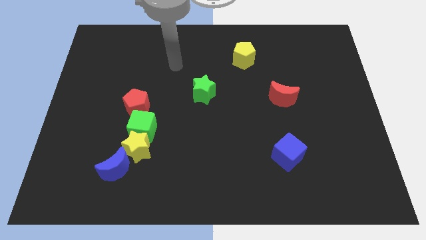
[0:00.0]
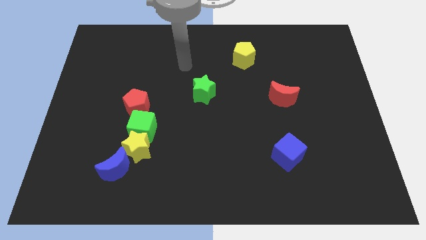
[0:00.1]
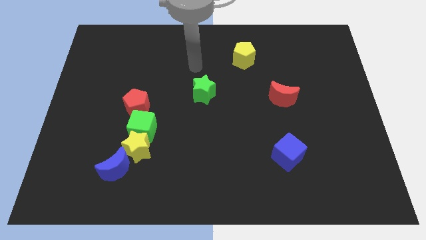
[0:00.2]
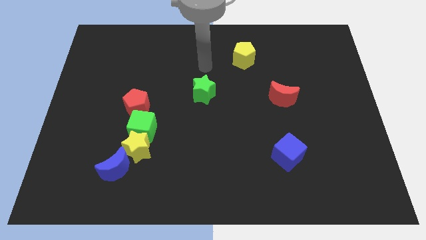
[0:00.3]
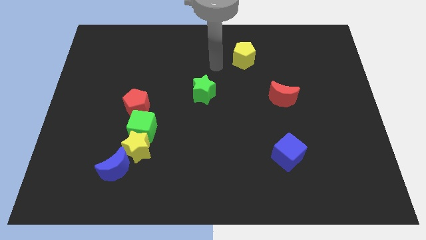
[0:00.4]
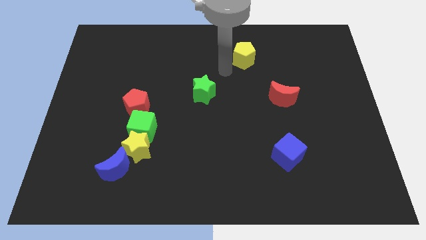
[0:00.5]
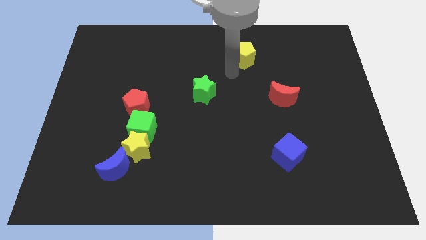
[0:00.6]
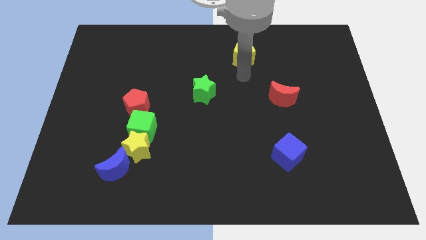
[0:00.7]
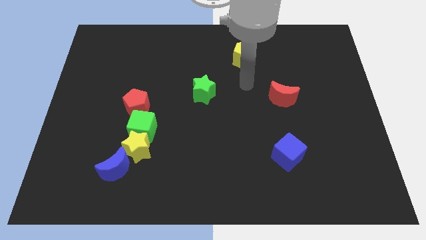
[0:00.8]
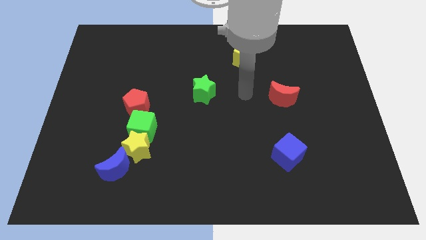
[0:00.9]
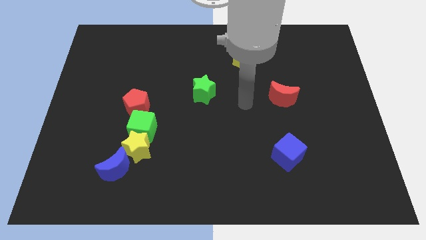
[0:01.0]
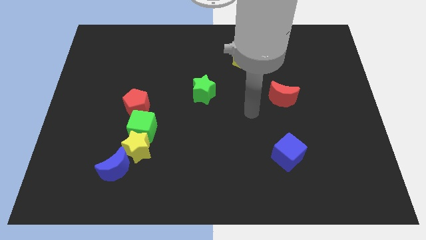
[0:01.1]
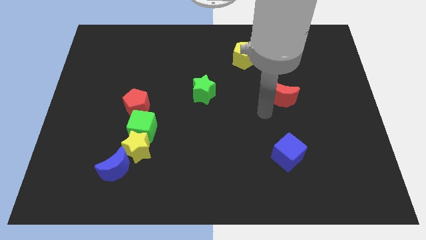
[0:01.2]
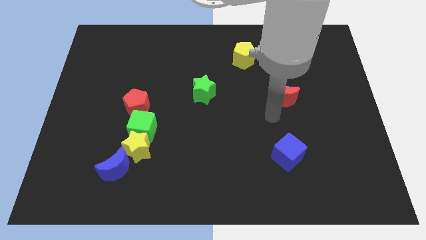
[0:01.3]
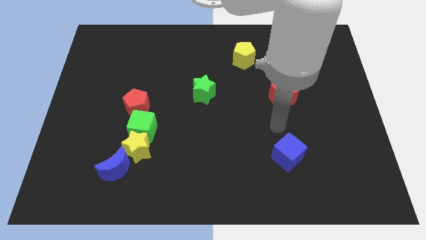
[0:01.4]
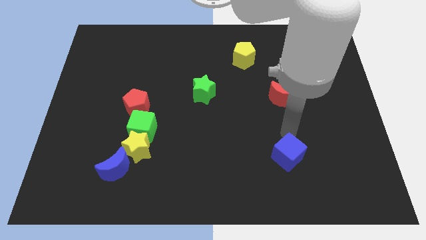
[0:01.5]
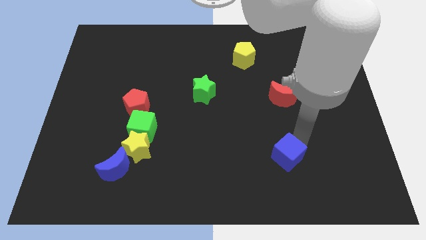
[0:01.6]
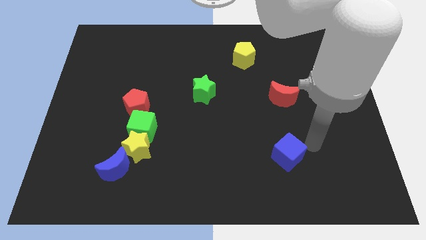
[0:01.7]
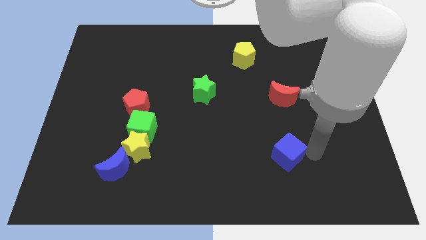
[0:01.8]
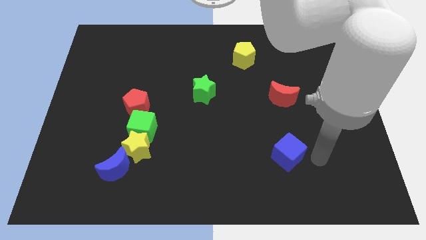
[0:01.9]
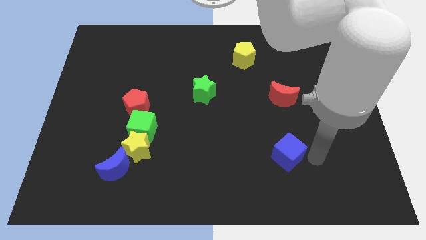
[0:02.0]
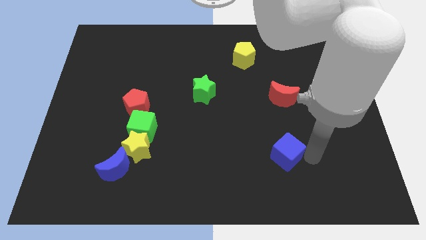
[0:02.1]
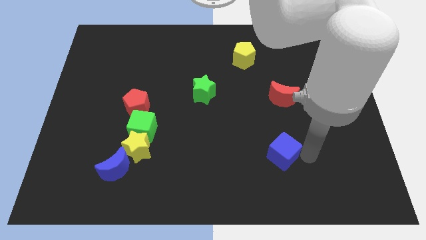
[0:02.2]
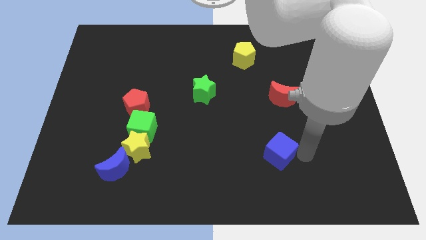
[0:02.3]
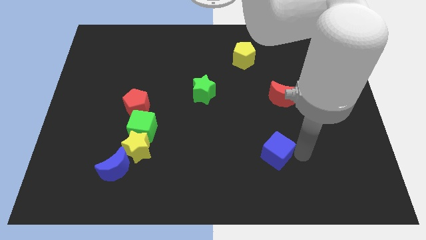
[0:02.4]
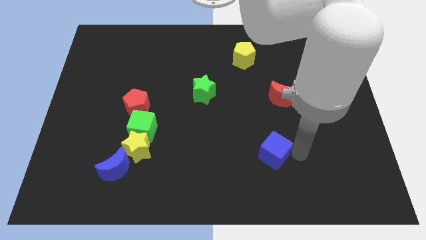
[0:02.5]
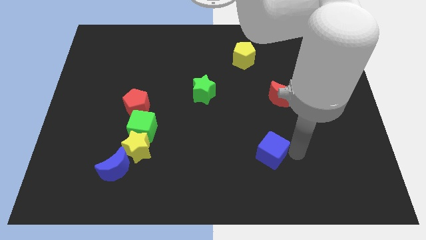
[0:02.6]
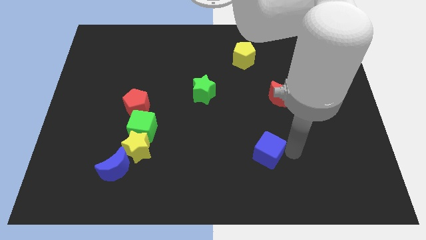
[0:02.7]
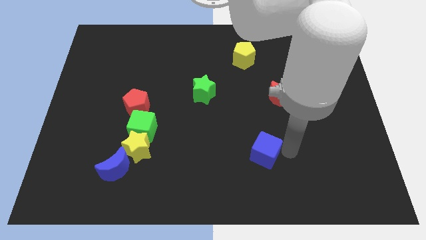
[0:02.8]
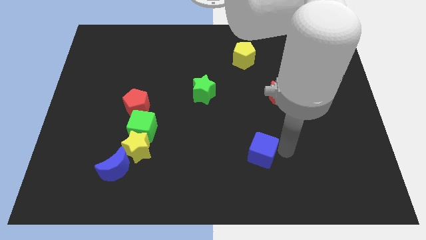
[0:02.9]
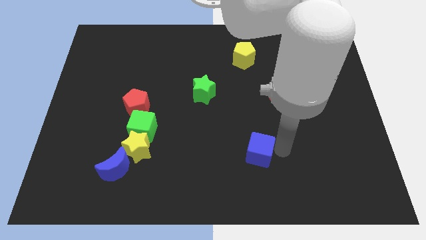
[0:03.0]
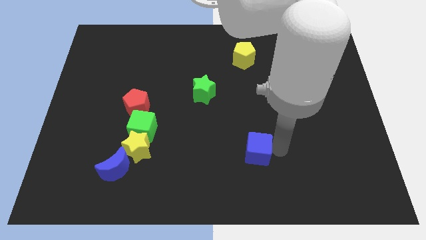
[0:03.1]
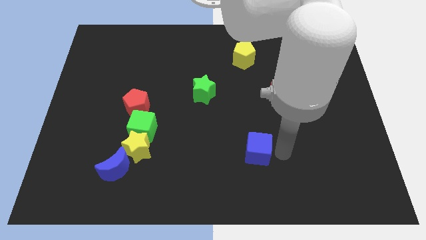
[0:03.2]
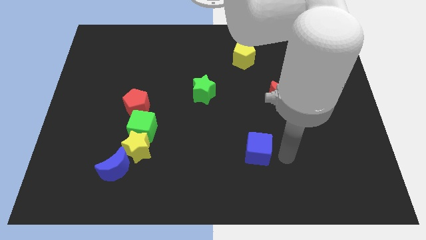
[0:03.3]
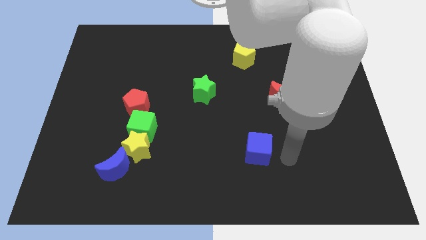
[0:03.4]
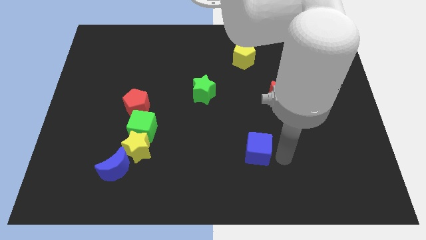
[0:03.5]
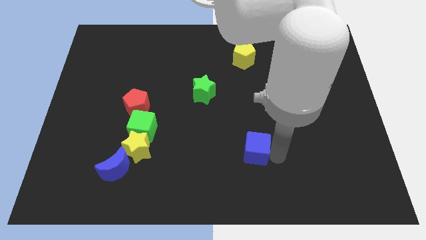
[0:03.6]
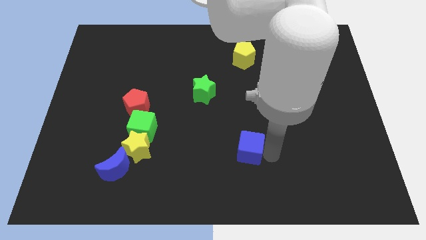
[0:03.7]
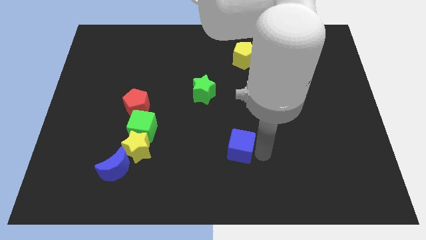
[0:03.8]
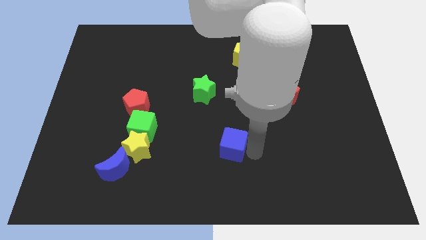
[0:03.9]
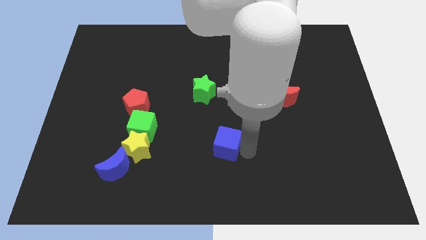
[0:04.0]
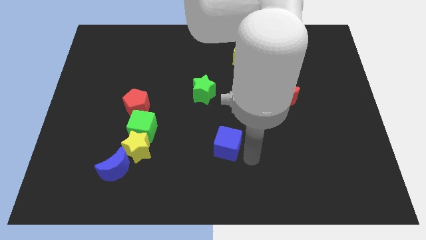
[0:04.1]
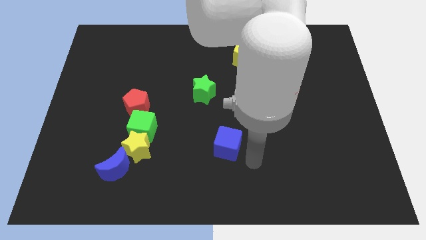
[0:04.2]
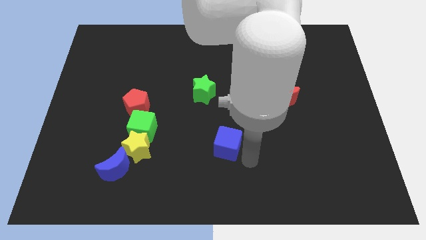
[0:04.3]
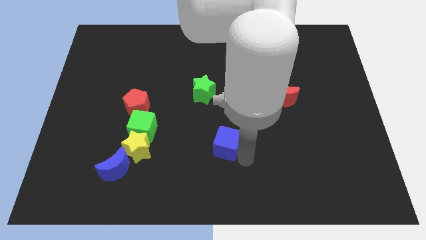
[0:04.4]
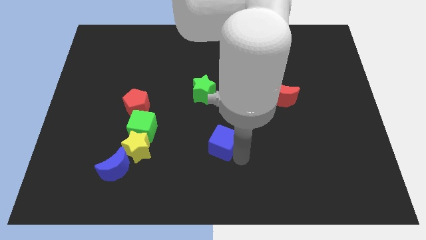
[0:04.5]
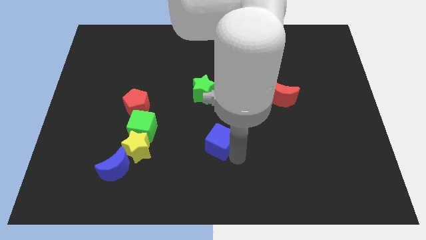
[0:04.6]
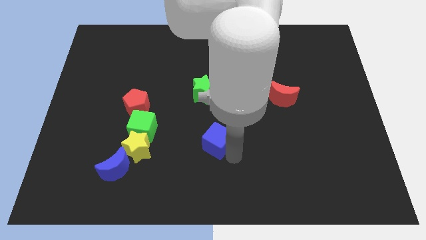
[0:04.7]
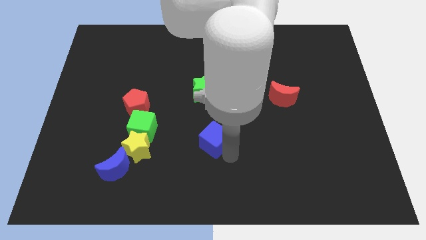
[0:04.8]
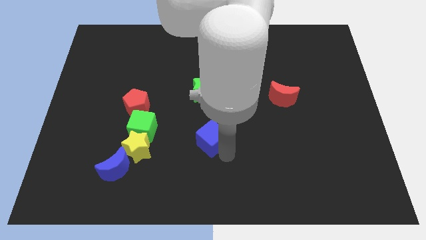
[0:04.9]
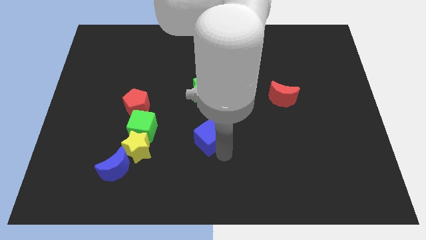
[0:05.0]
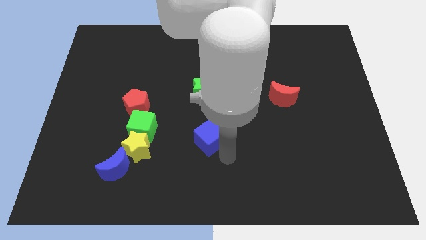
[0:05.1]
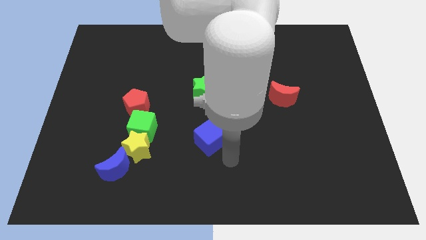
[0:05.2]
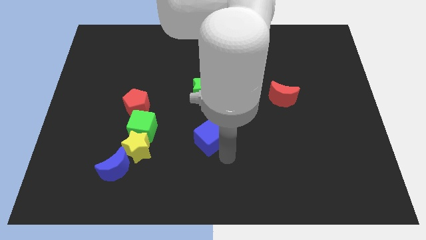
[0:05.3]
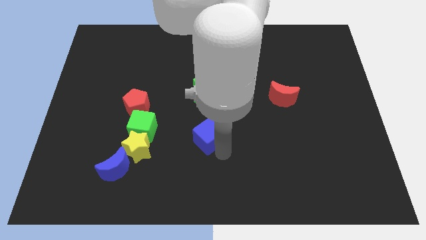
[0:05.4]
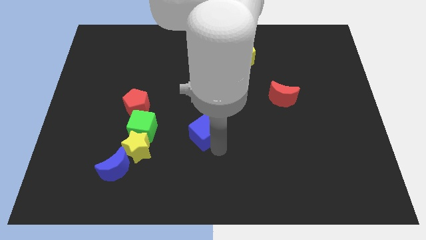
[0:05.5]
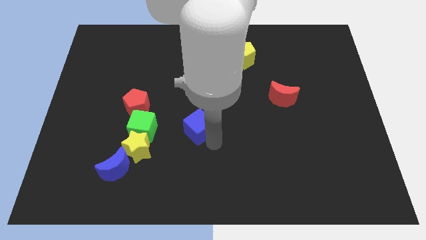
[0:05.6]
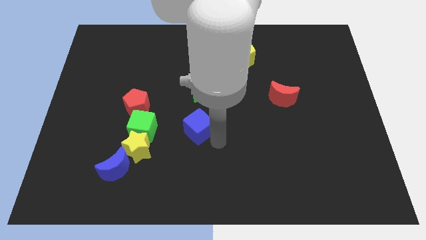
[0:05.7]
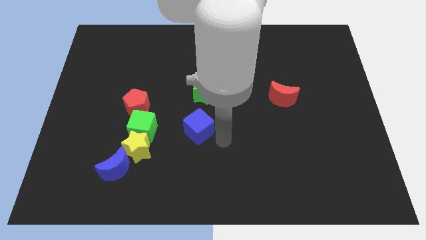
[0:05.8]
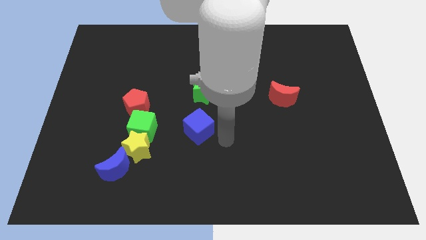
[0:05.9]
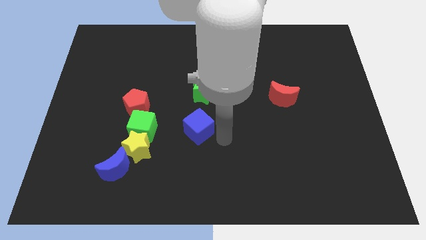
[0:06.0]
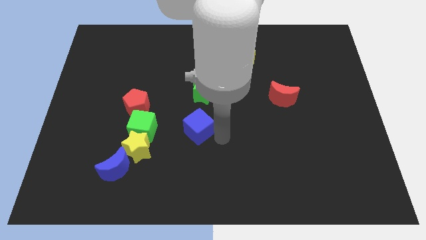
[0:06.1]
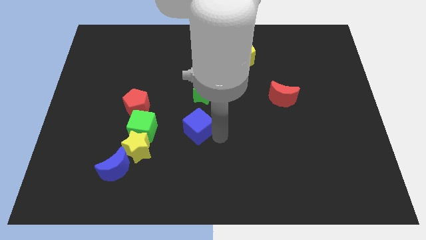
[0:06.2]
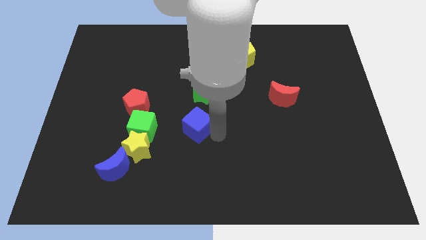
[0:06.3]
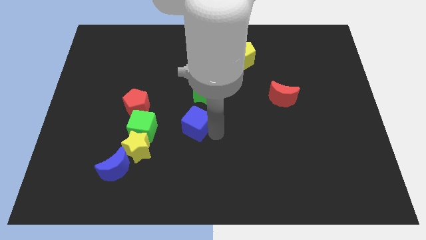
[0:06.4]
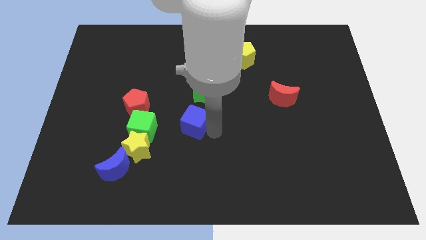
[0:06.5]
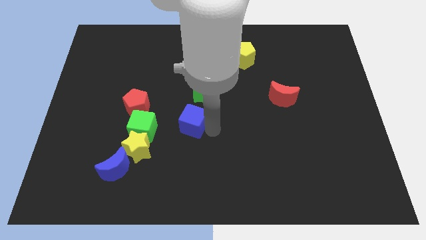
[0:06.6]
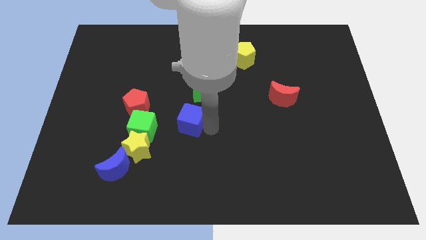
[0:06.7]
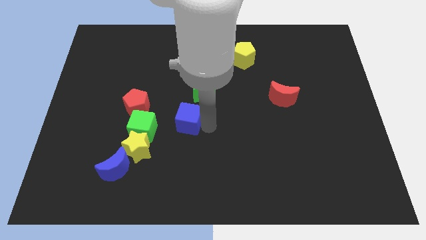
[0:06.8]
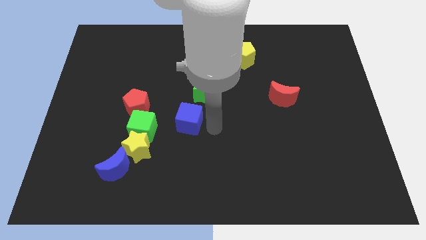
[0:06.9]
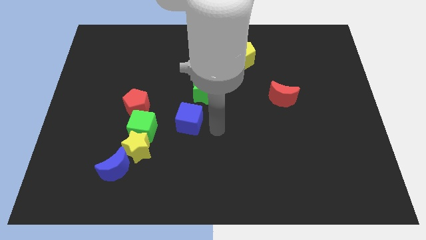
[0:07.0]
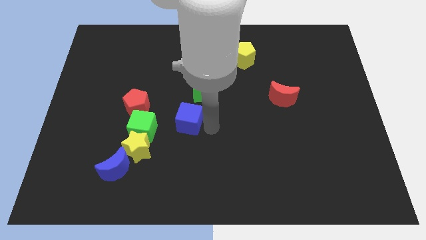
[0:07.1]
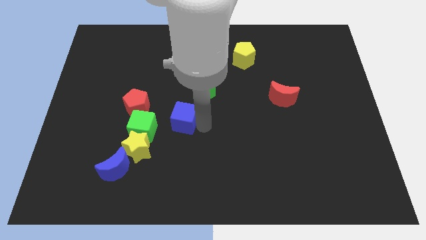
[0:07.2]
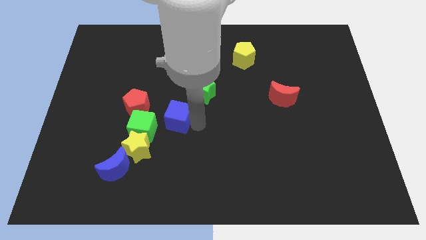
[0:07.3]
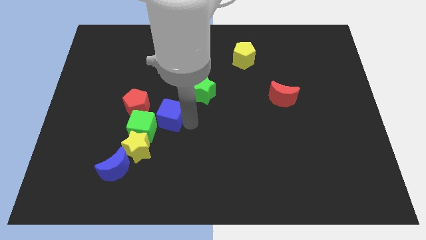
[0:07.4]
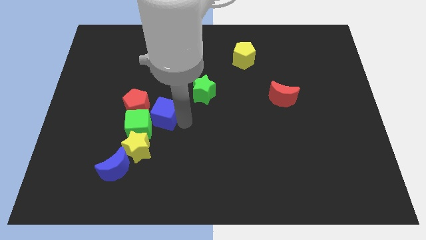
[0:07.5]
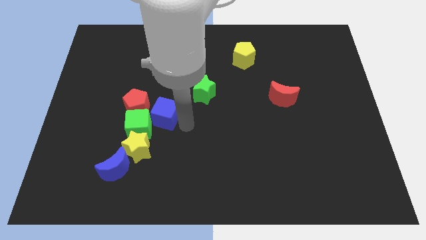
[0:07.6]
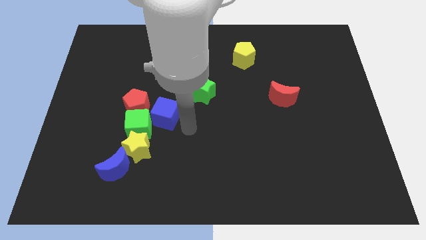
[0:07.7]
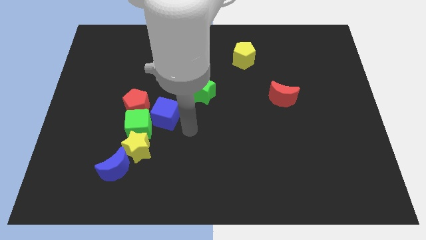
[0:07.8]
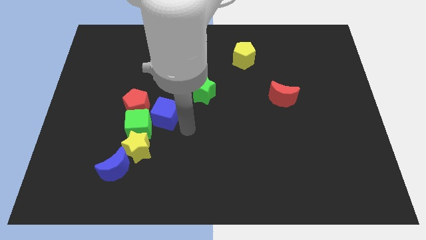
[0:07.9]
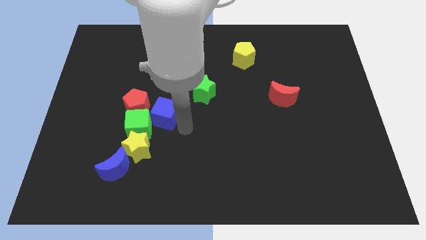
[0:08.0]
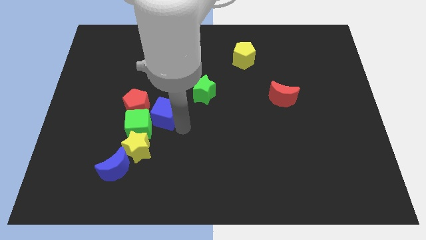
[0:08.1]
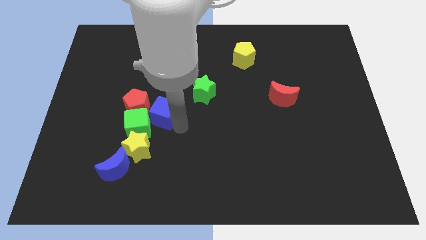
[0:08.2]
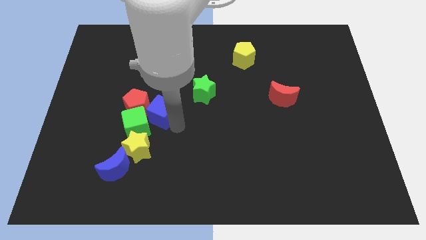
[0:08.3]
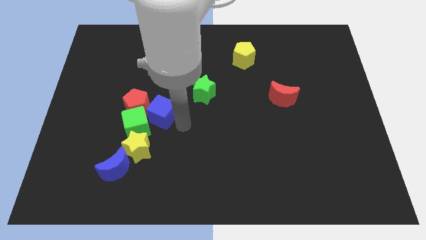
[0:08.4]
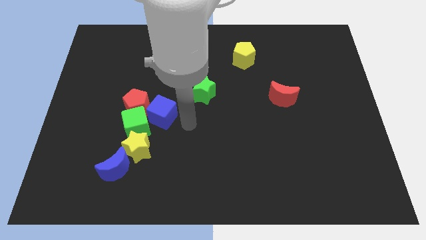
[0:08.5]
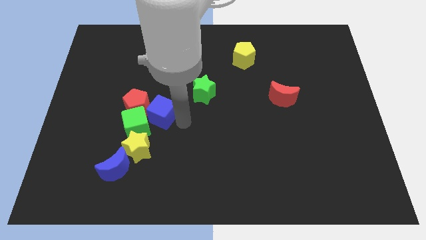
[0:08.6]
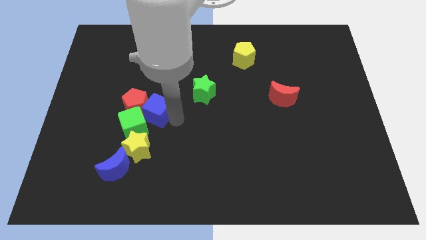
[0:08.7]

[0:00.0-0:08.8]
slide the blue cube towards the red pentagon
